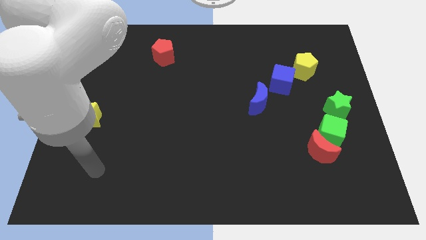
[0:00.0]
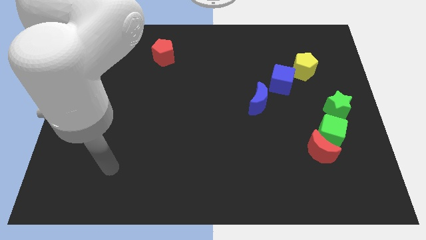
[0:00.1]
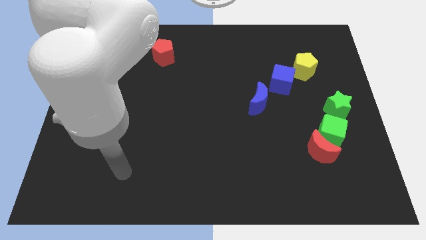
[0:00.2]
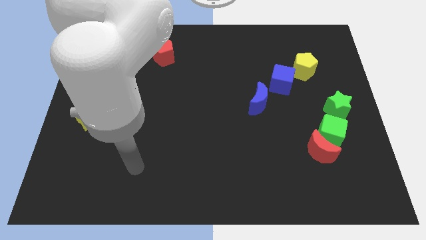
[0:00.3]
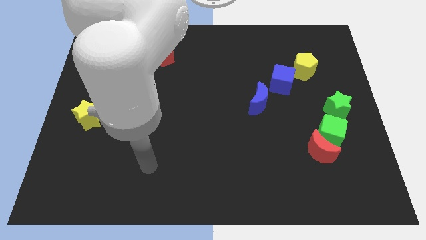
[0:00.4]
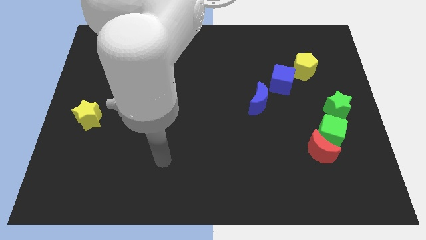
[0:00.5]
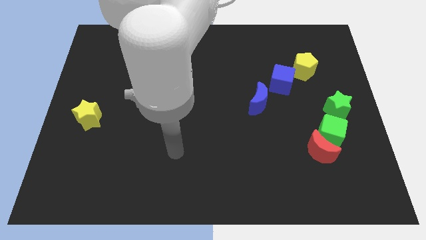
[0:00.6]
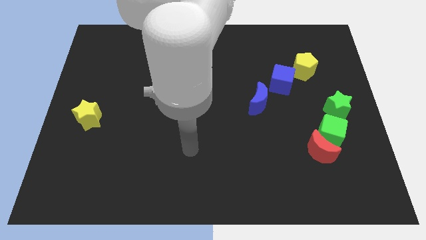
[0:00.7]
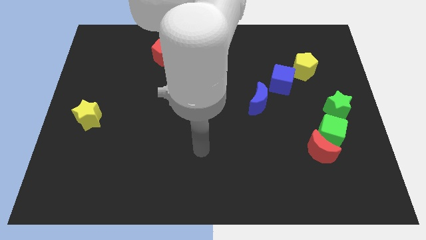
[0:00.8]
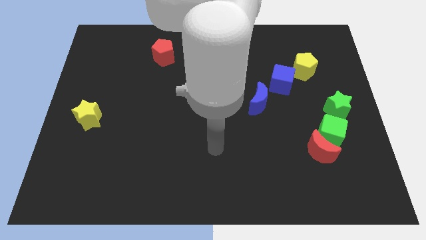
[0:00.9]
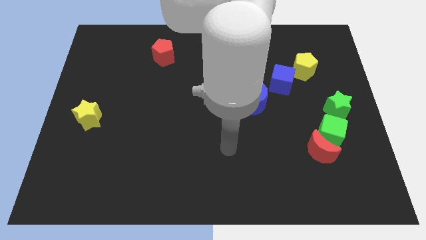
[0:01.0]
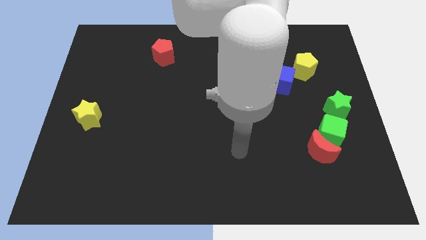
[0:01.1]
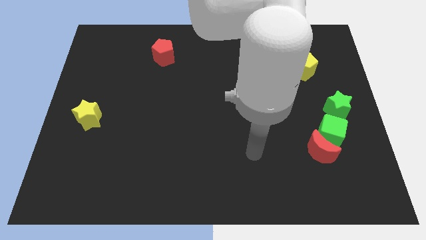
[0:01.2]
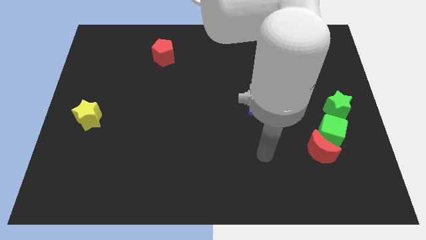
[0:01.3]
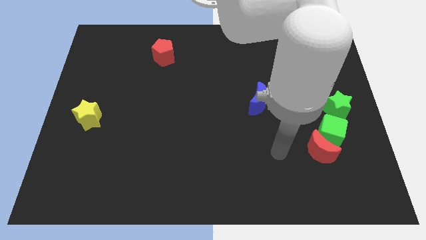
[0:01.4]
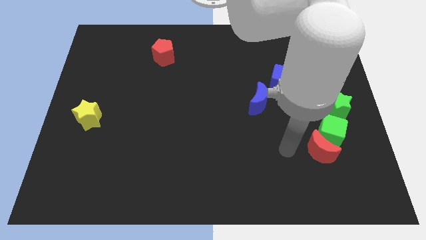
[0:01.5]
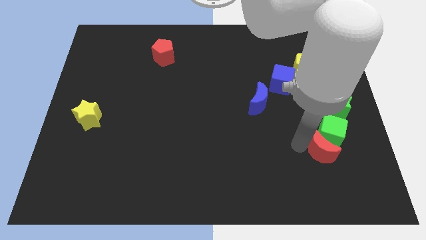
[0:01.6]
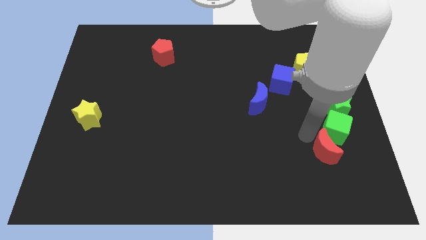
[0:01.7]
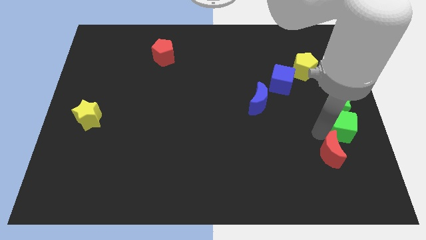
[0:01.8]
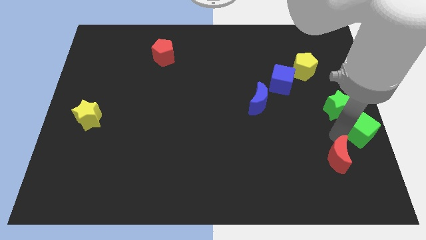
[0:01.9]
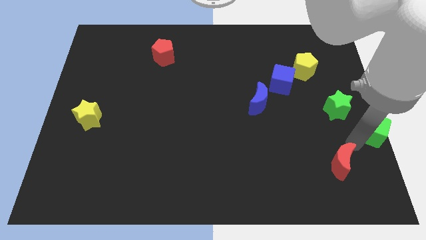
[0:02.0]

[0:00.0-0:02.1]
pull the red moon apart from the green cube

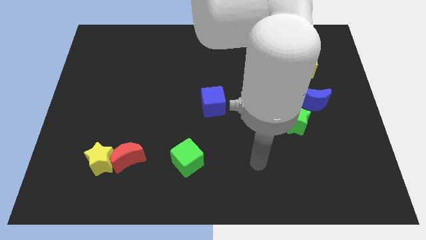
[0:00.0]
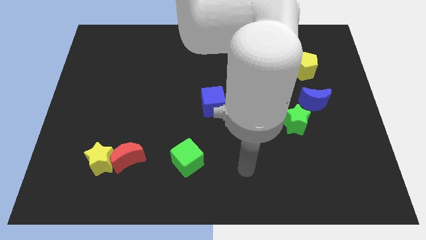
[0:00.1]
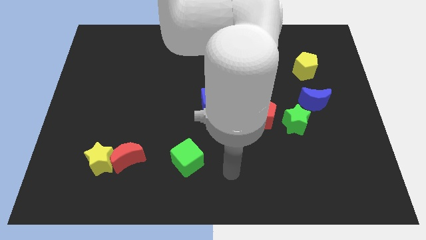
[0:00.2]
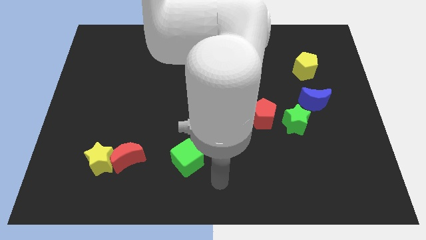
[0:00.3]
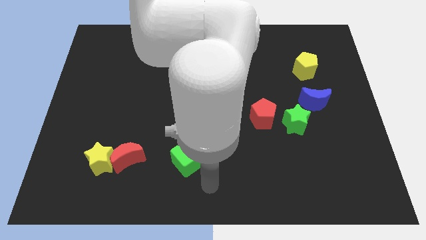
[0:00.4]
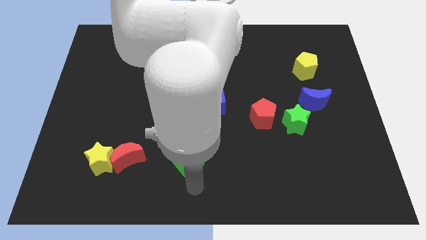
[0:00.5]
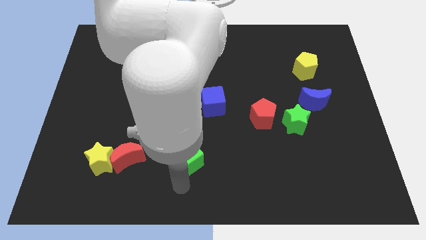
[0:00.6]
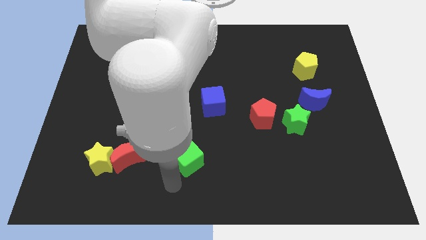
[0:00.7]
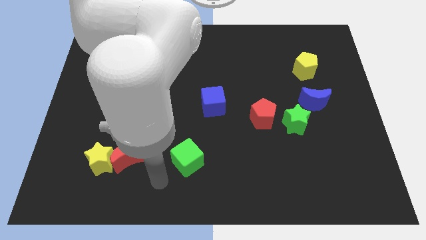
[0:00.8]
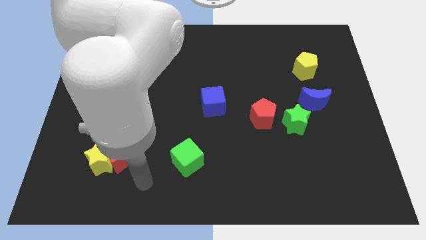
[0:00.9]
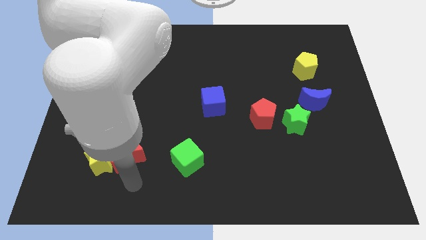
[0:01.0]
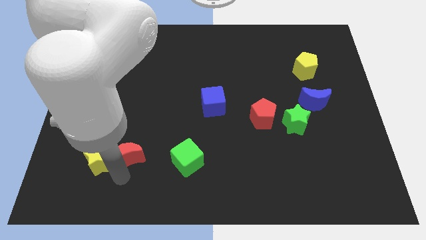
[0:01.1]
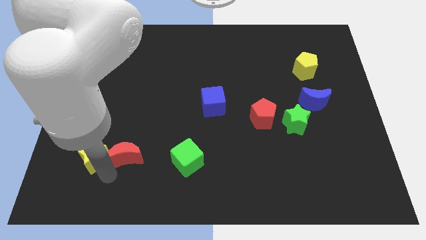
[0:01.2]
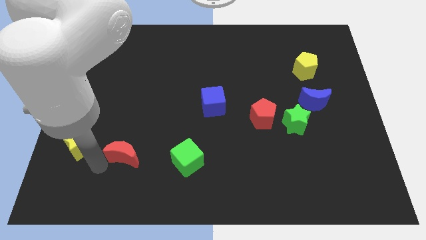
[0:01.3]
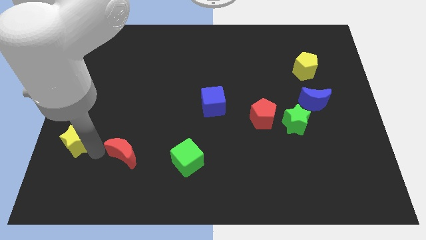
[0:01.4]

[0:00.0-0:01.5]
pull the red moon apart from the yellow star

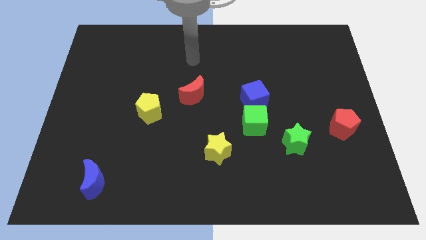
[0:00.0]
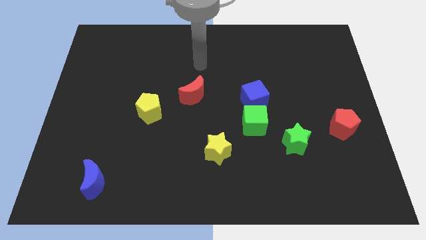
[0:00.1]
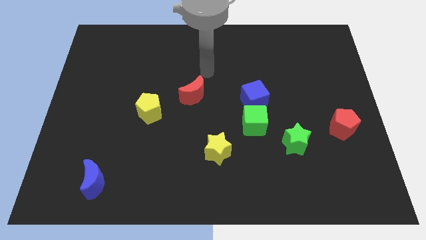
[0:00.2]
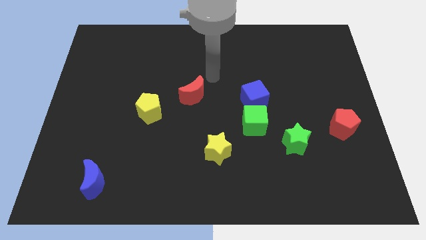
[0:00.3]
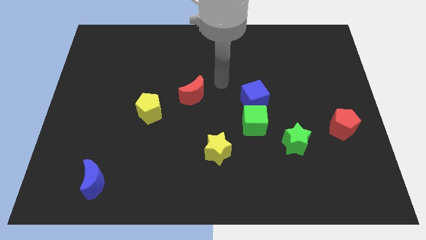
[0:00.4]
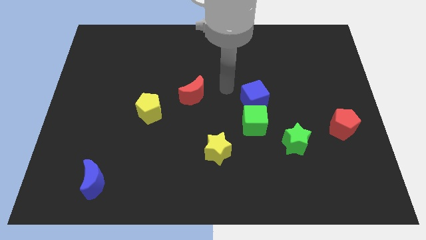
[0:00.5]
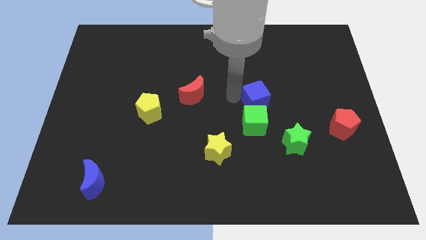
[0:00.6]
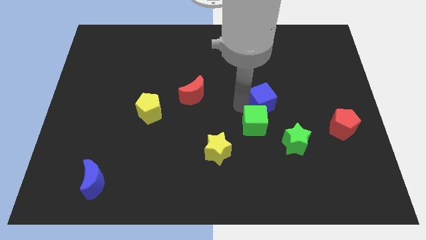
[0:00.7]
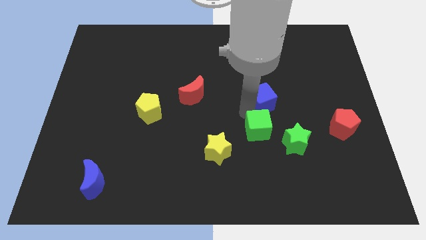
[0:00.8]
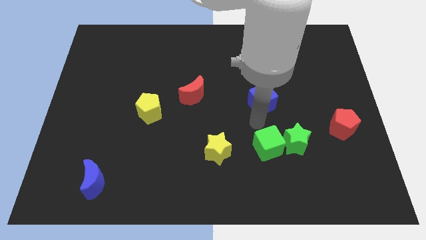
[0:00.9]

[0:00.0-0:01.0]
pull the blue cube apart from the green cube

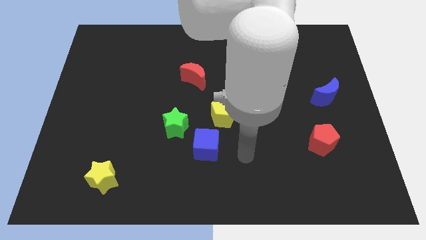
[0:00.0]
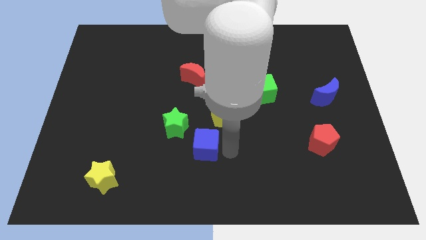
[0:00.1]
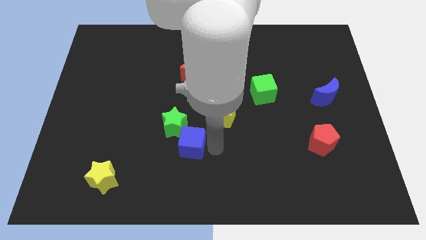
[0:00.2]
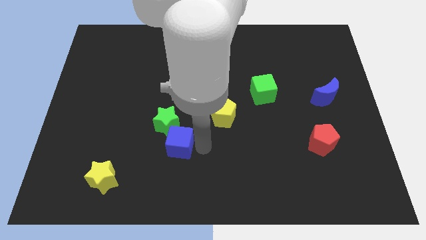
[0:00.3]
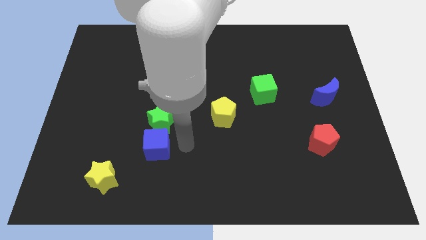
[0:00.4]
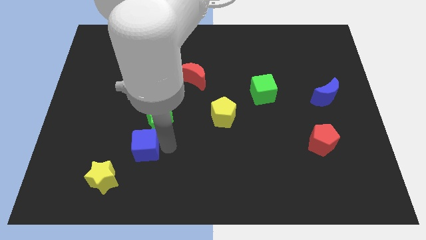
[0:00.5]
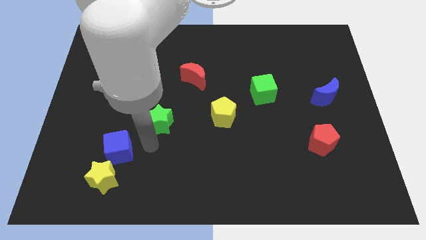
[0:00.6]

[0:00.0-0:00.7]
move the green star away from the blue cube

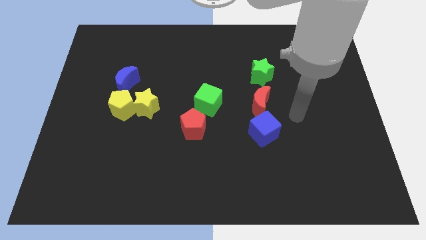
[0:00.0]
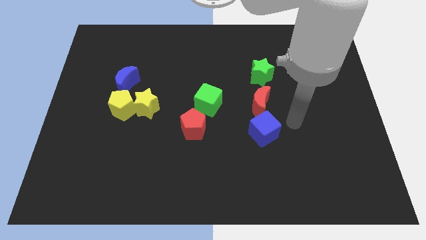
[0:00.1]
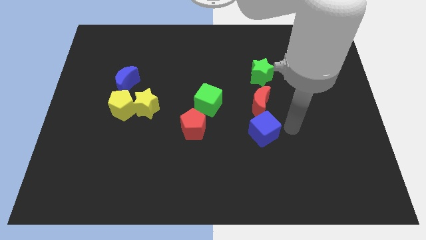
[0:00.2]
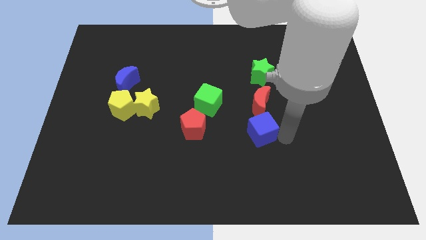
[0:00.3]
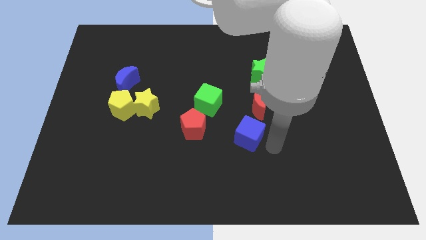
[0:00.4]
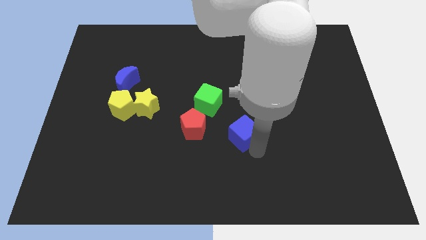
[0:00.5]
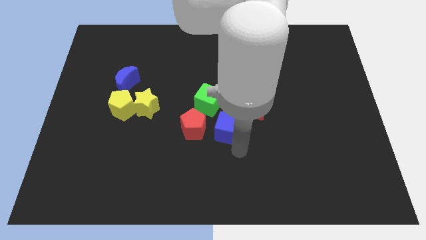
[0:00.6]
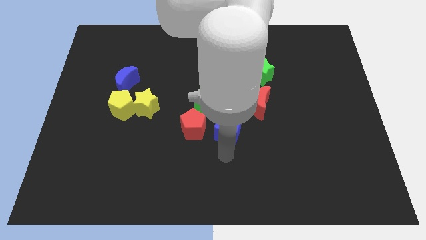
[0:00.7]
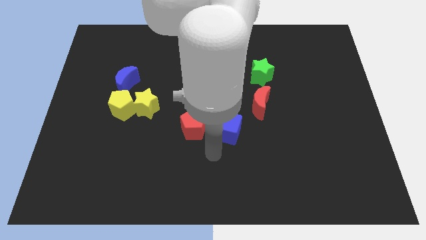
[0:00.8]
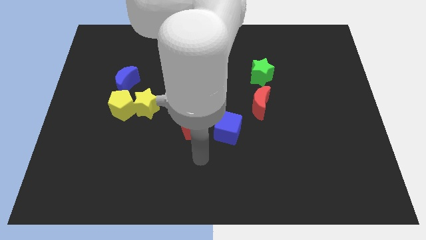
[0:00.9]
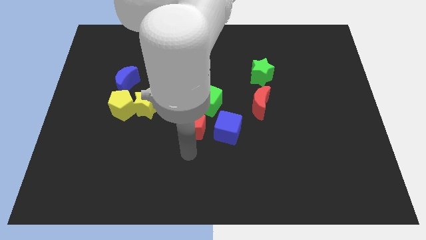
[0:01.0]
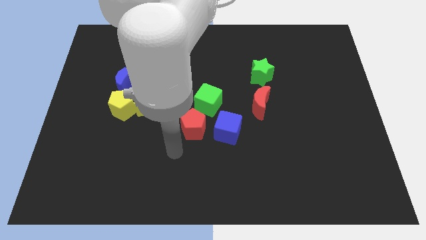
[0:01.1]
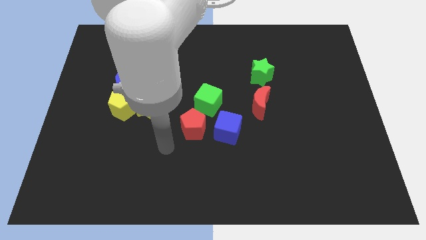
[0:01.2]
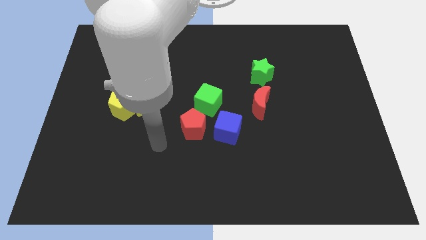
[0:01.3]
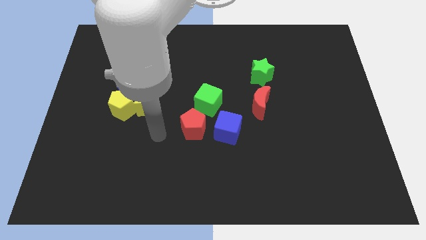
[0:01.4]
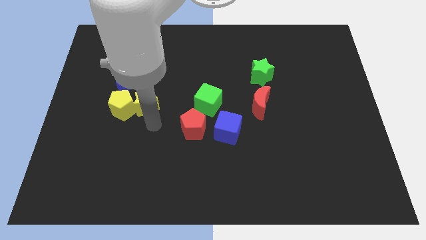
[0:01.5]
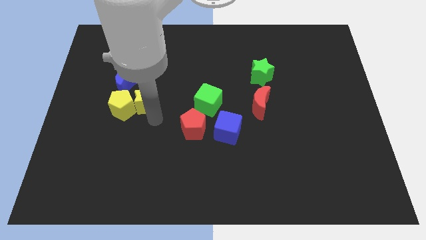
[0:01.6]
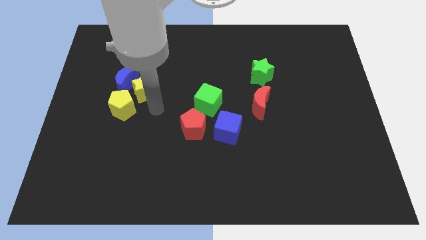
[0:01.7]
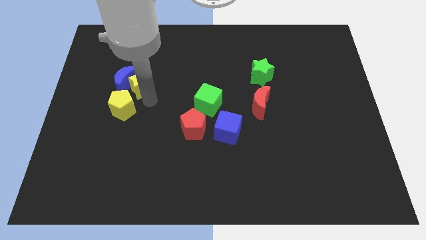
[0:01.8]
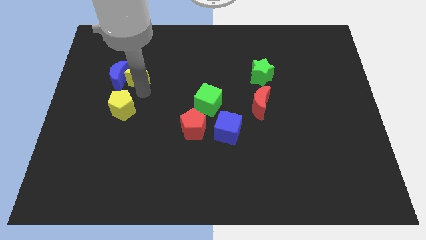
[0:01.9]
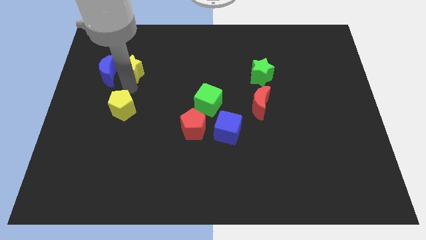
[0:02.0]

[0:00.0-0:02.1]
move the yellow pentagon away from the yellow star and blue moon

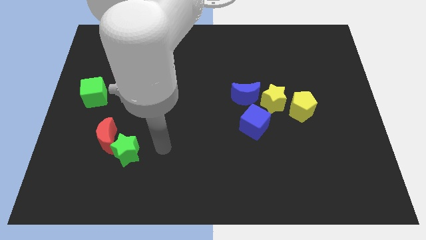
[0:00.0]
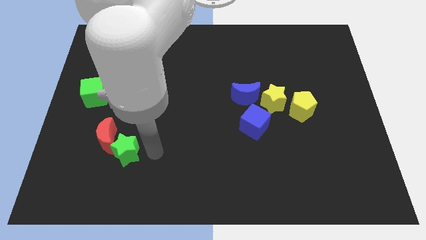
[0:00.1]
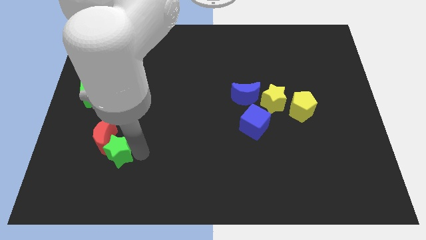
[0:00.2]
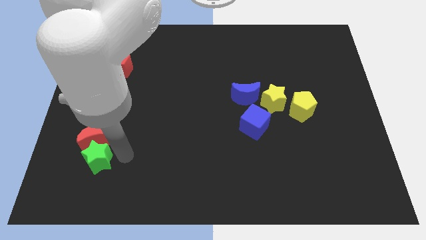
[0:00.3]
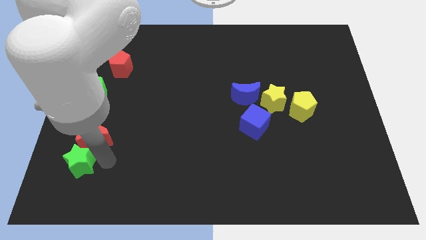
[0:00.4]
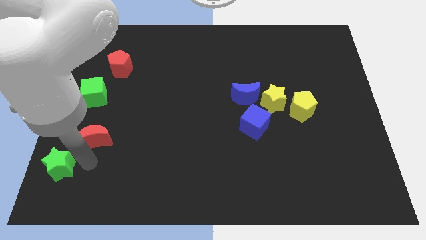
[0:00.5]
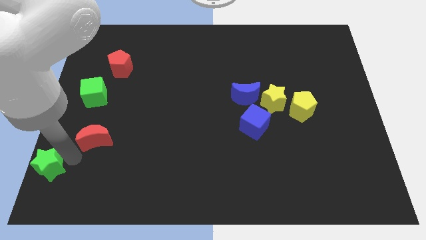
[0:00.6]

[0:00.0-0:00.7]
pull the red moon apart from the green star

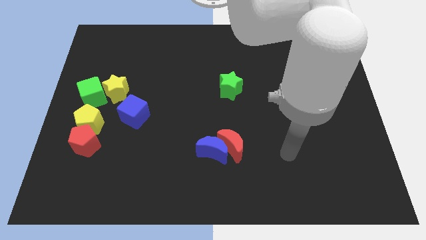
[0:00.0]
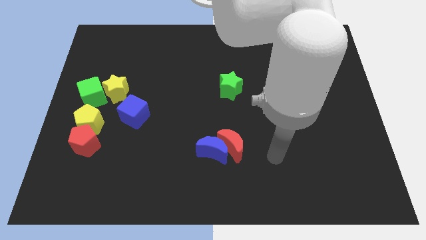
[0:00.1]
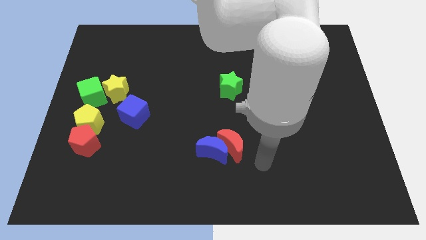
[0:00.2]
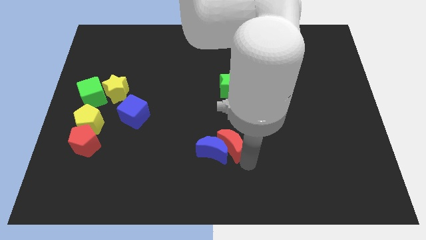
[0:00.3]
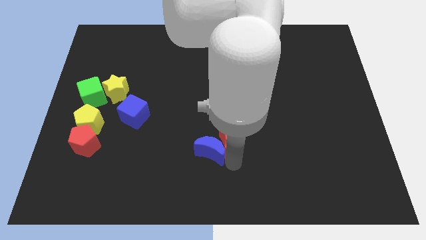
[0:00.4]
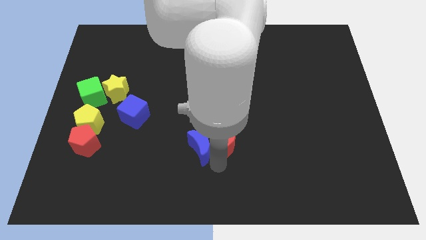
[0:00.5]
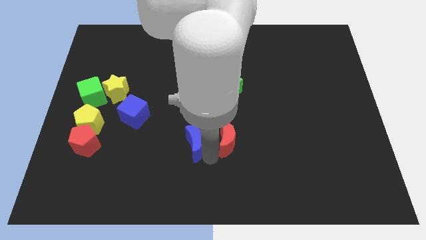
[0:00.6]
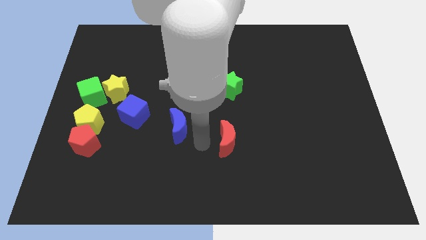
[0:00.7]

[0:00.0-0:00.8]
move the red moon away from the blue moon

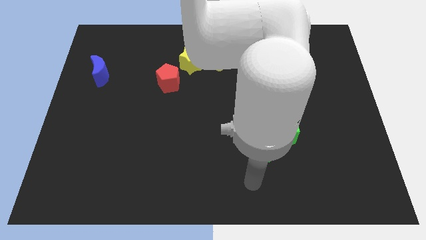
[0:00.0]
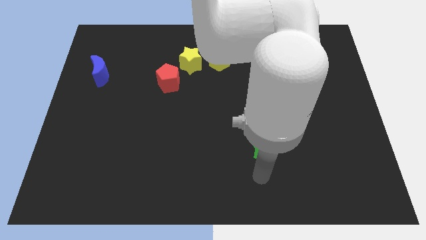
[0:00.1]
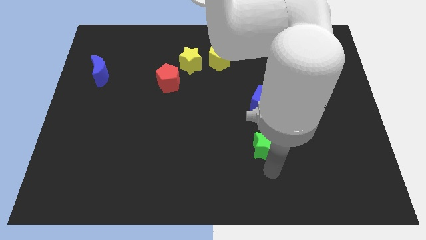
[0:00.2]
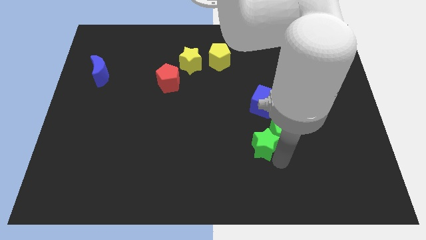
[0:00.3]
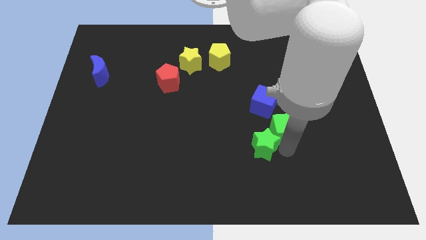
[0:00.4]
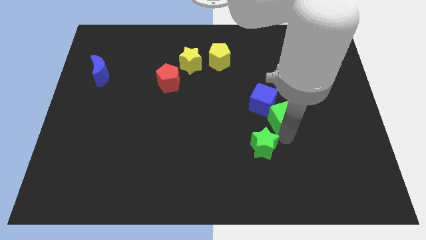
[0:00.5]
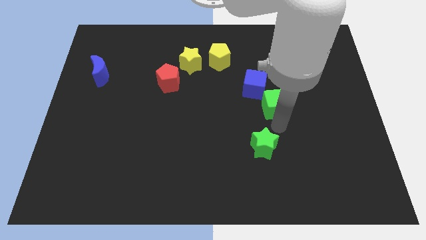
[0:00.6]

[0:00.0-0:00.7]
separate the green star from the green cube
